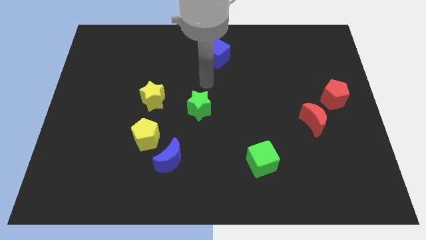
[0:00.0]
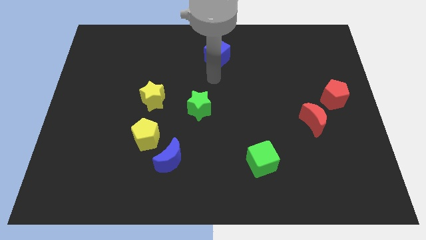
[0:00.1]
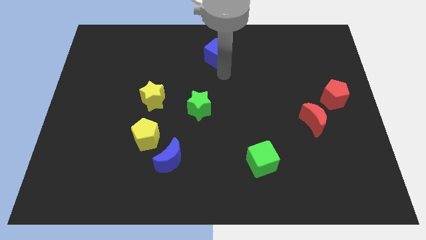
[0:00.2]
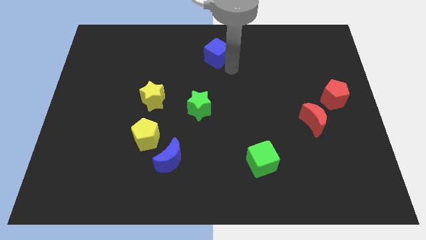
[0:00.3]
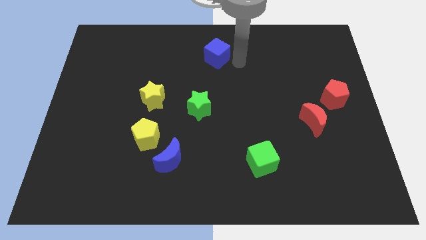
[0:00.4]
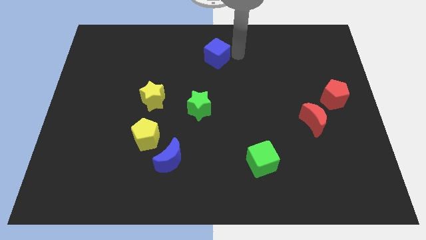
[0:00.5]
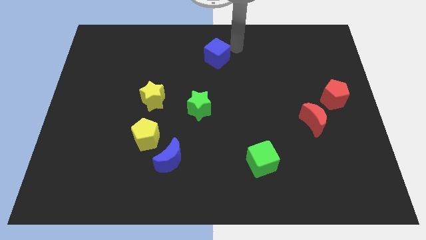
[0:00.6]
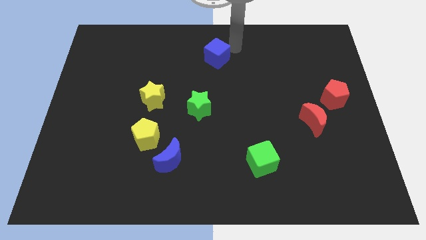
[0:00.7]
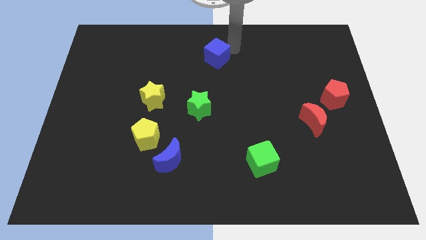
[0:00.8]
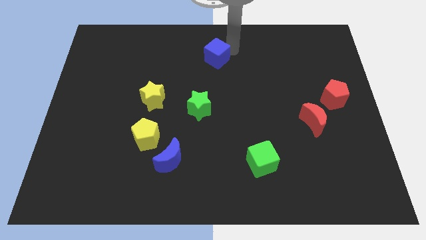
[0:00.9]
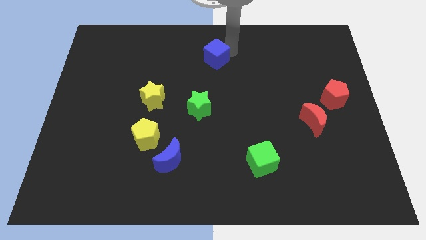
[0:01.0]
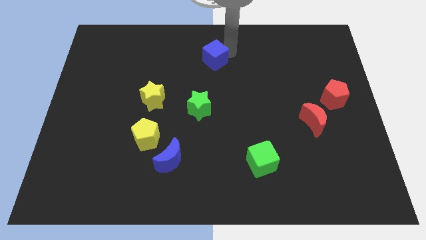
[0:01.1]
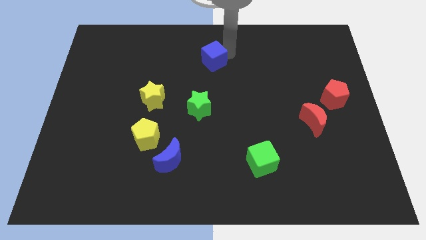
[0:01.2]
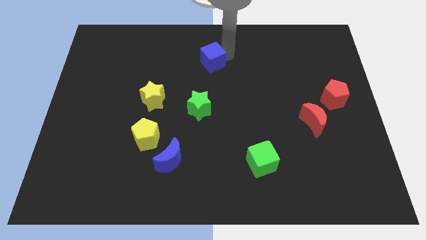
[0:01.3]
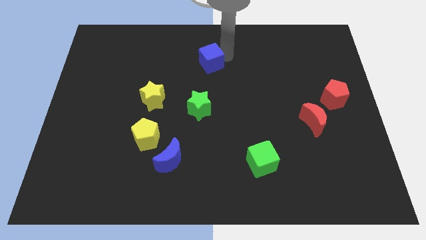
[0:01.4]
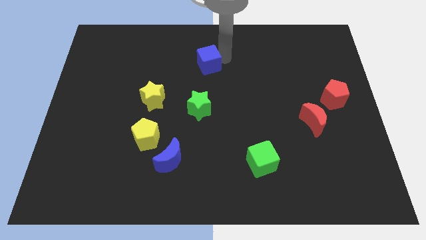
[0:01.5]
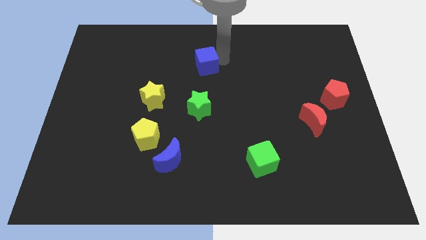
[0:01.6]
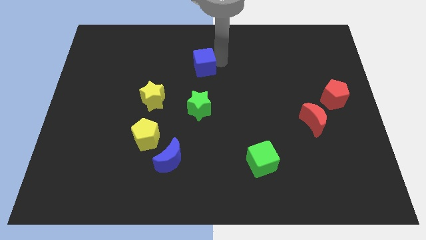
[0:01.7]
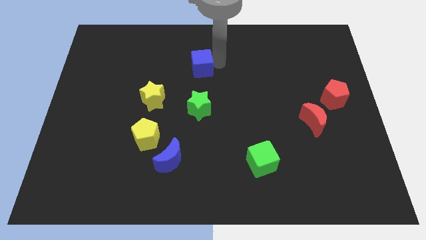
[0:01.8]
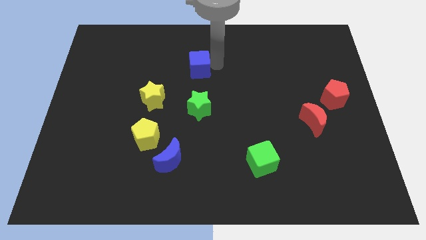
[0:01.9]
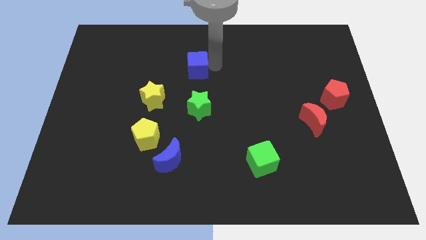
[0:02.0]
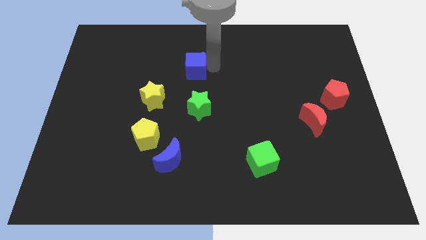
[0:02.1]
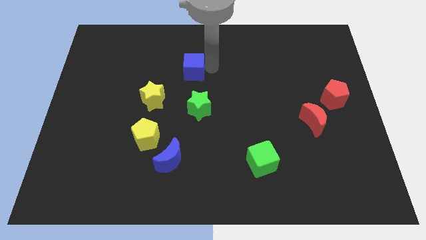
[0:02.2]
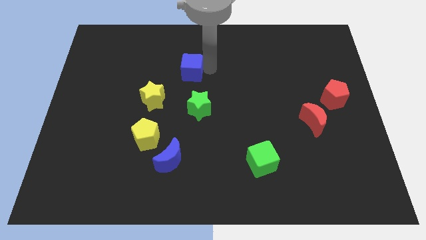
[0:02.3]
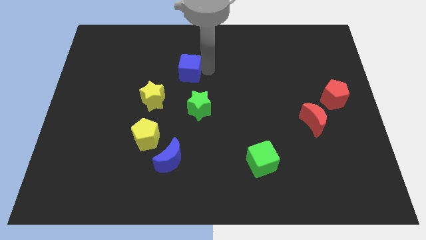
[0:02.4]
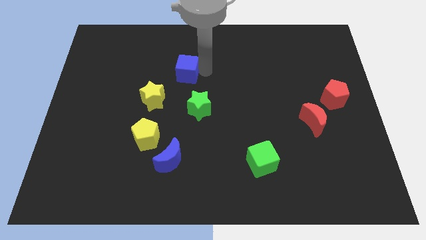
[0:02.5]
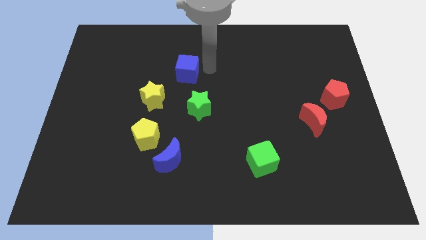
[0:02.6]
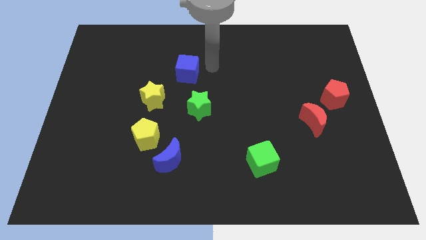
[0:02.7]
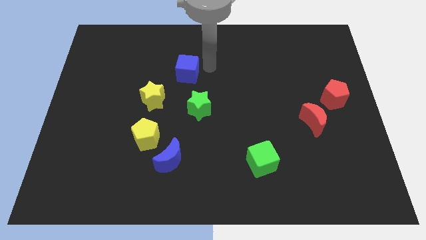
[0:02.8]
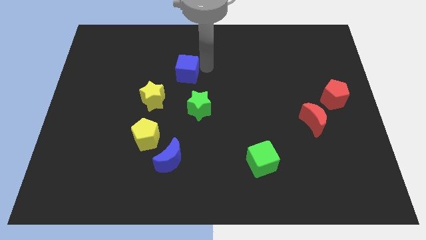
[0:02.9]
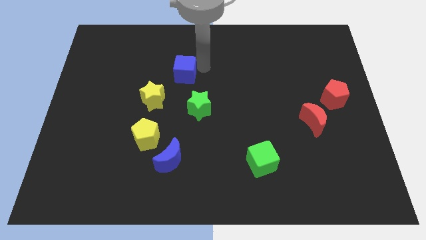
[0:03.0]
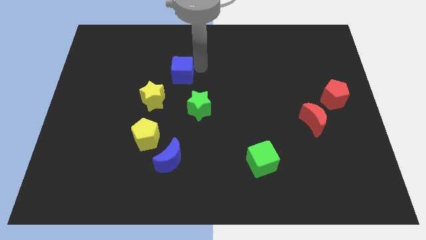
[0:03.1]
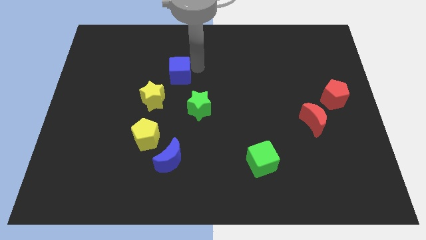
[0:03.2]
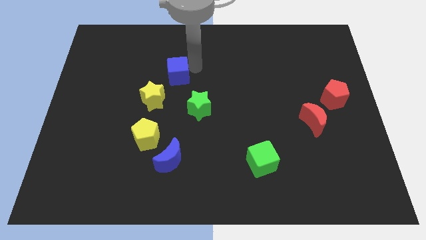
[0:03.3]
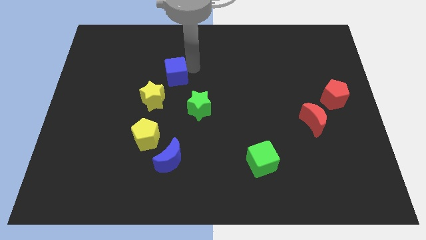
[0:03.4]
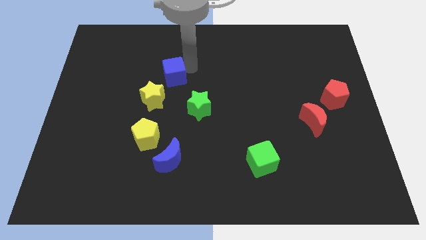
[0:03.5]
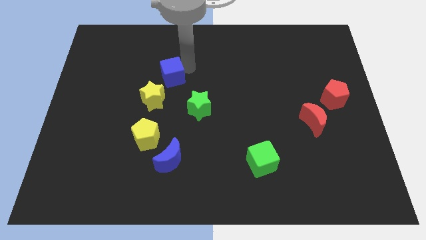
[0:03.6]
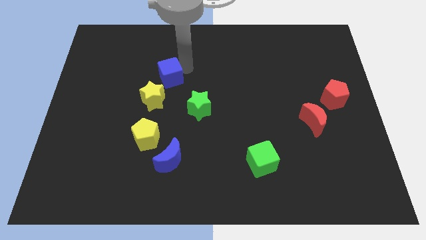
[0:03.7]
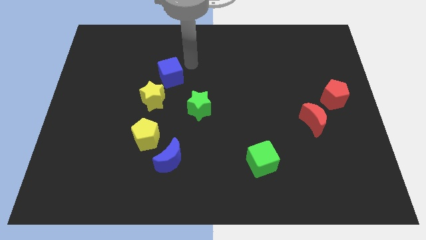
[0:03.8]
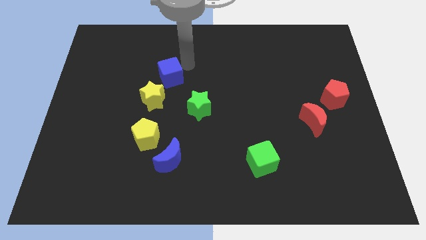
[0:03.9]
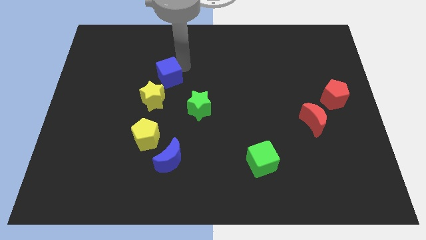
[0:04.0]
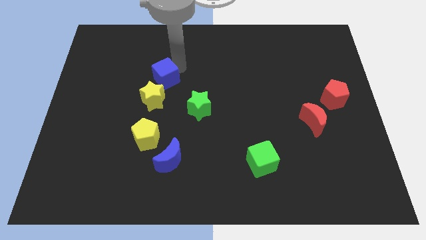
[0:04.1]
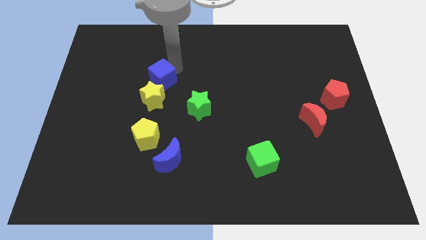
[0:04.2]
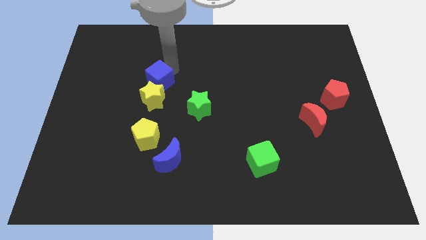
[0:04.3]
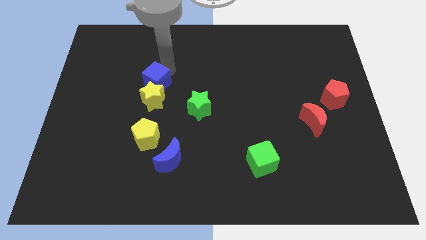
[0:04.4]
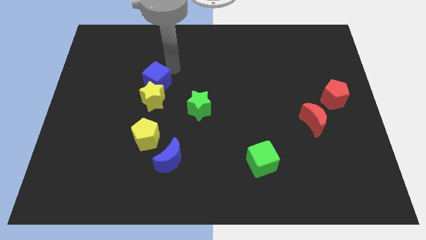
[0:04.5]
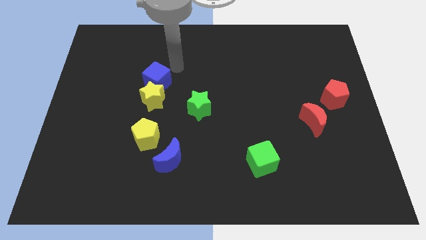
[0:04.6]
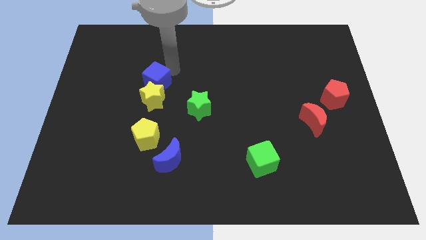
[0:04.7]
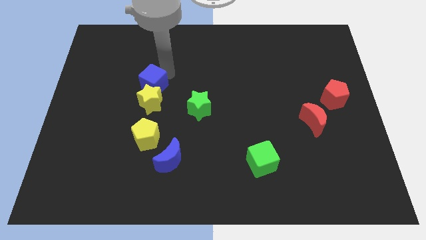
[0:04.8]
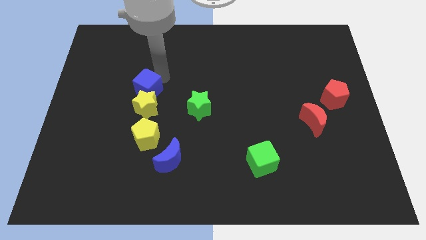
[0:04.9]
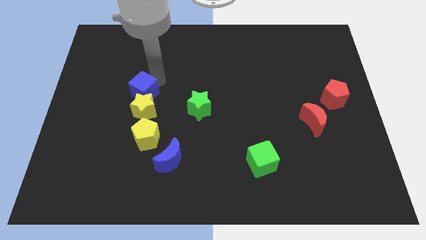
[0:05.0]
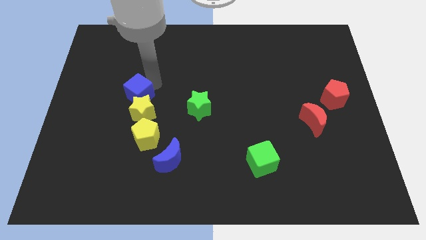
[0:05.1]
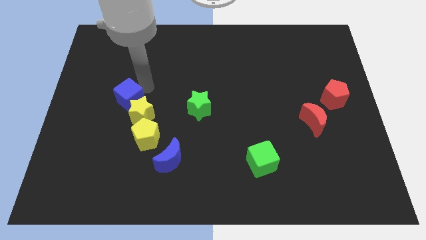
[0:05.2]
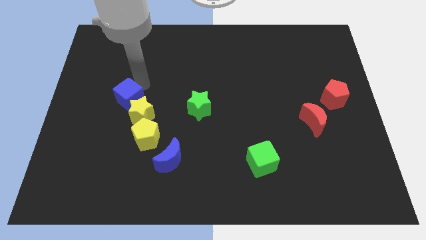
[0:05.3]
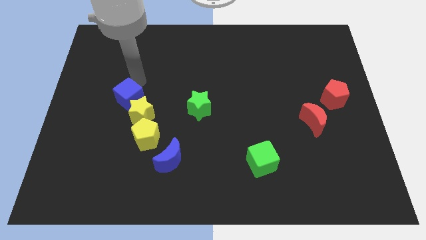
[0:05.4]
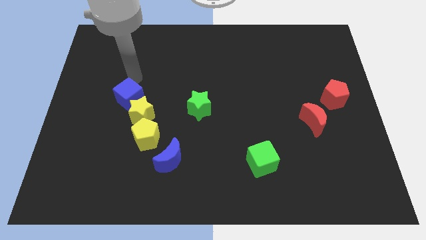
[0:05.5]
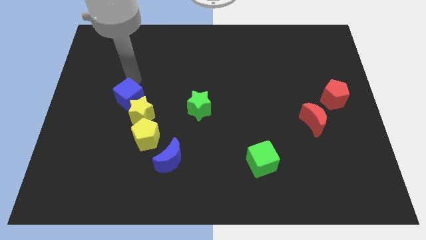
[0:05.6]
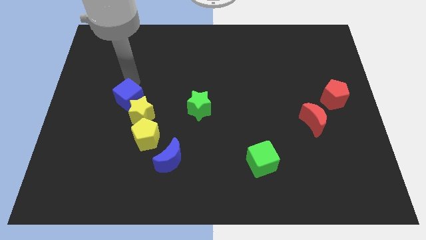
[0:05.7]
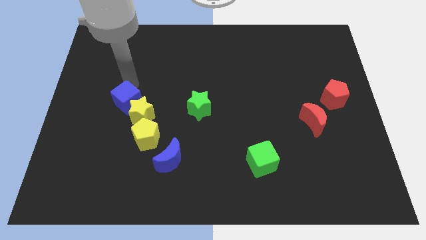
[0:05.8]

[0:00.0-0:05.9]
move the blue cube to the top left of the yellow pentagon

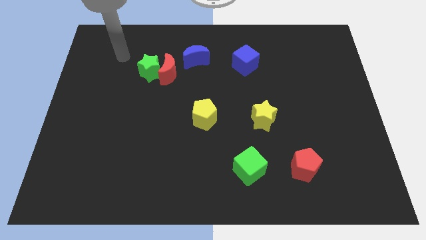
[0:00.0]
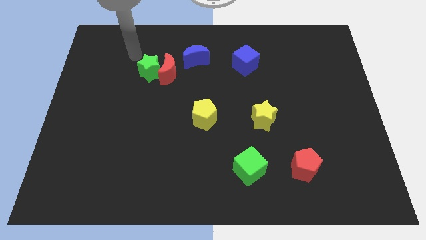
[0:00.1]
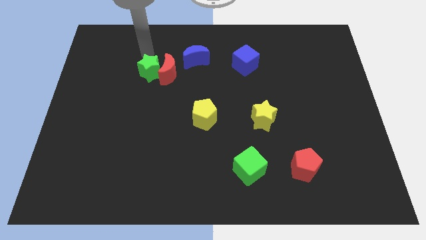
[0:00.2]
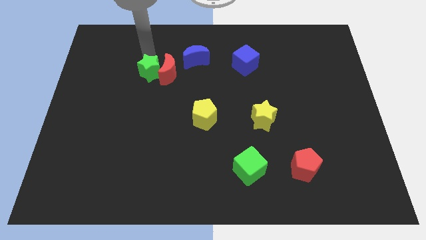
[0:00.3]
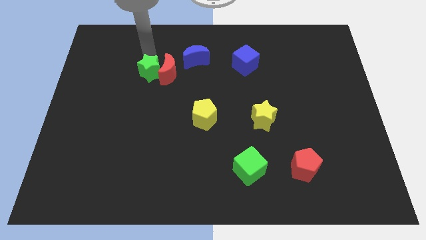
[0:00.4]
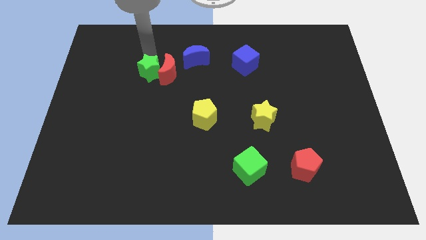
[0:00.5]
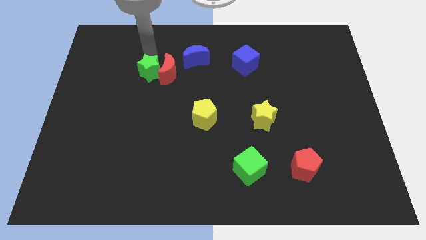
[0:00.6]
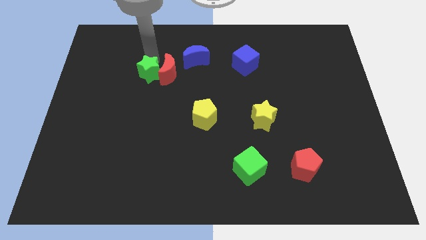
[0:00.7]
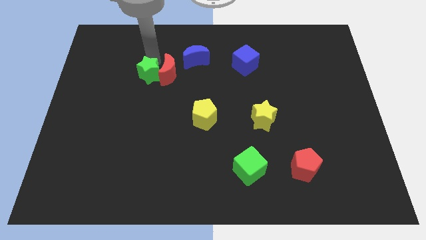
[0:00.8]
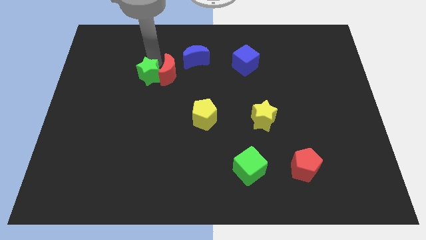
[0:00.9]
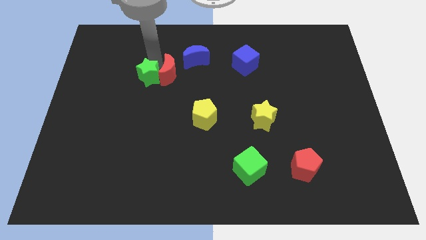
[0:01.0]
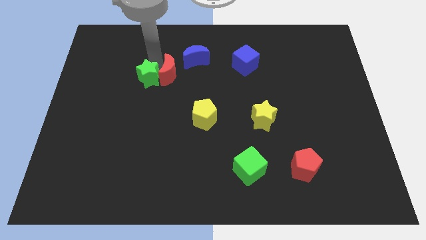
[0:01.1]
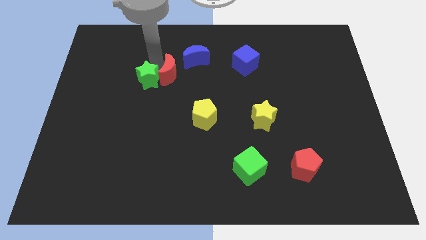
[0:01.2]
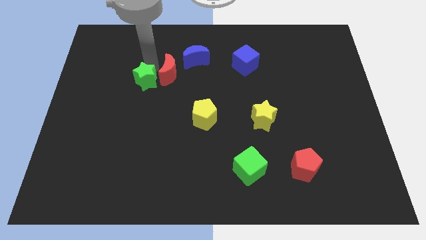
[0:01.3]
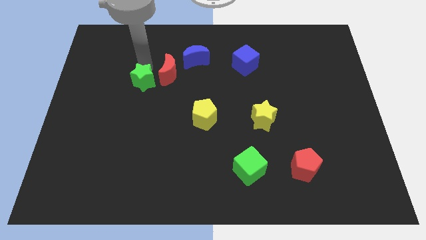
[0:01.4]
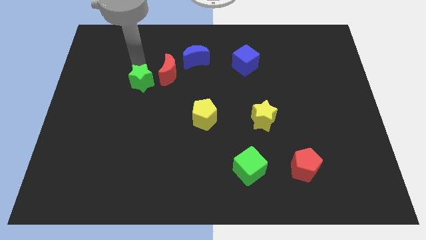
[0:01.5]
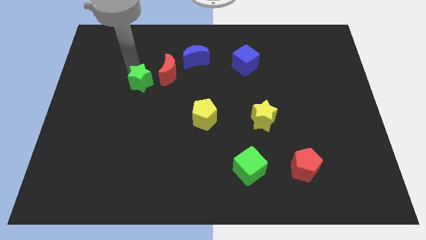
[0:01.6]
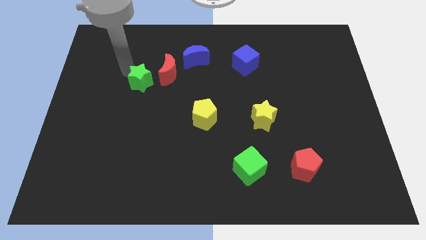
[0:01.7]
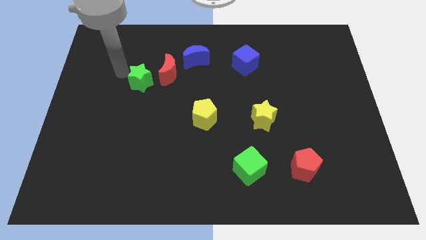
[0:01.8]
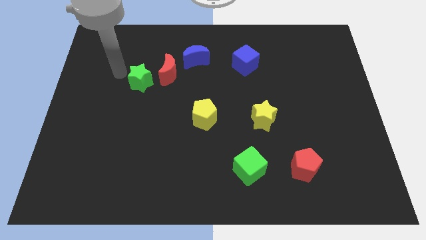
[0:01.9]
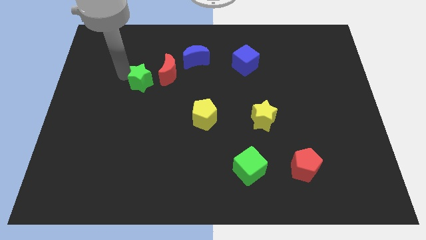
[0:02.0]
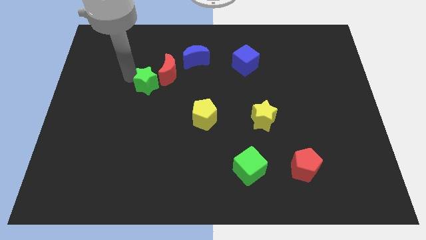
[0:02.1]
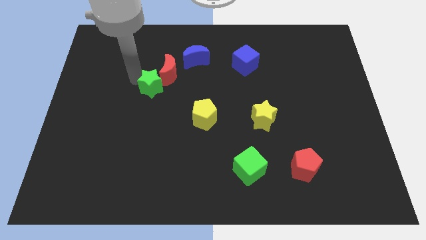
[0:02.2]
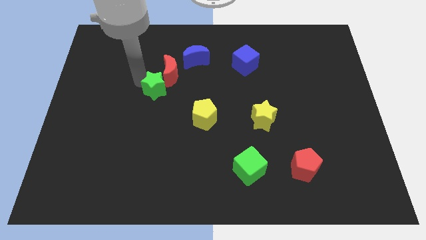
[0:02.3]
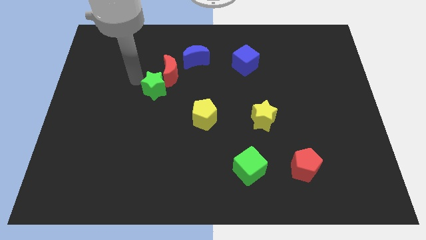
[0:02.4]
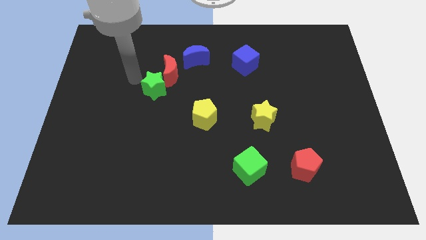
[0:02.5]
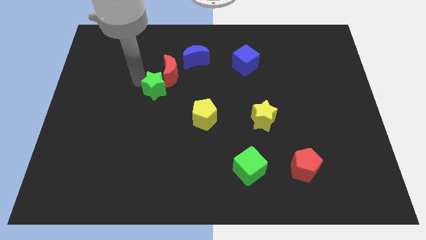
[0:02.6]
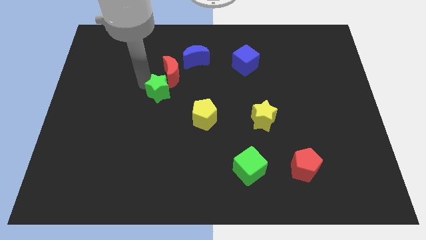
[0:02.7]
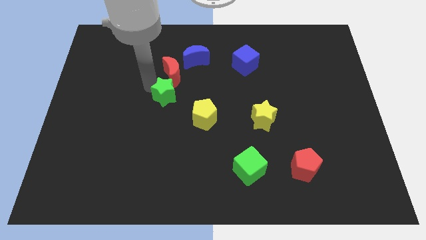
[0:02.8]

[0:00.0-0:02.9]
slide the green star to the top left side of the yellow pentagon
